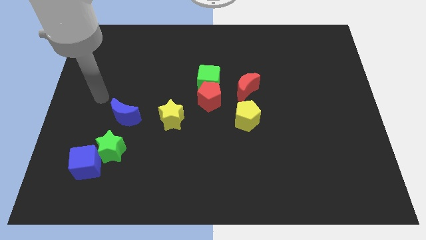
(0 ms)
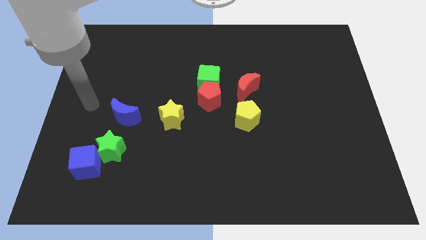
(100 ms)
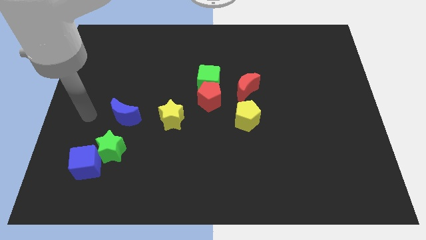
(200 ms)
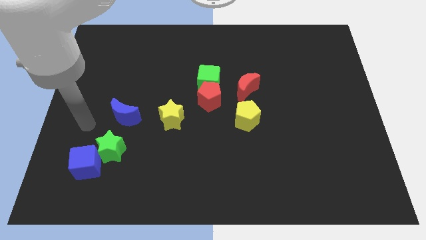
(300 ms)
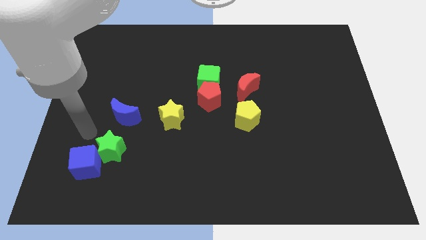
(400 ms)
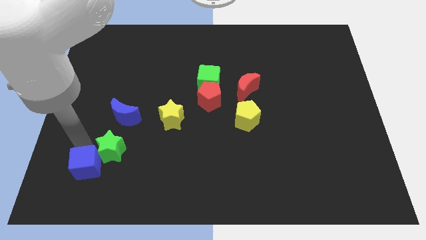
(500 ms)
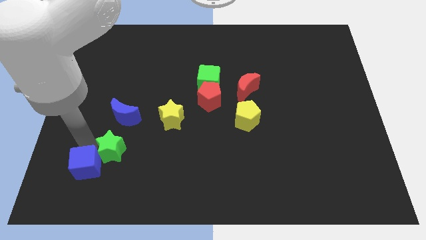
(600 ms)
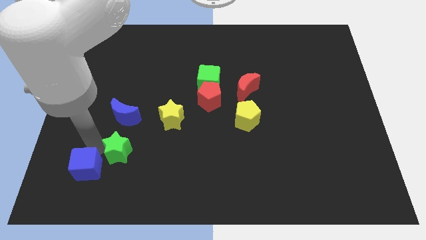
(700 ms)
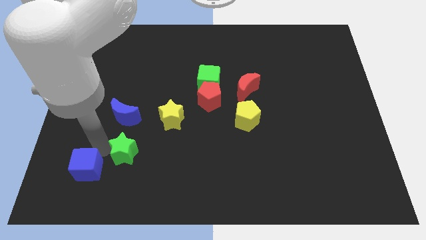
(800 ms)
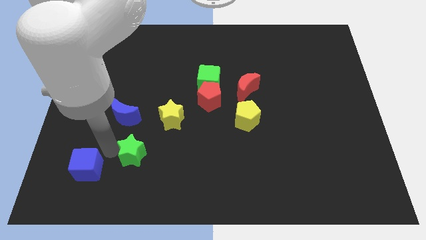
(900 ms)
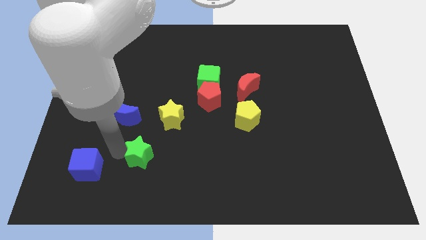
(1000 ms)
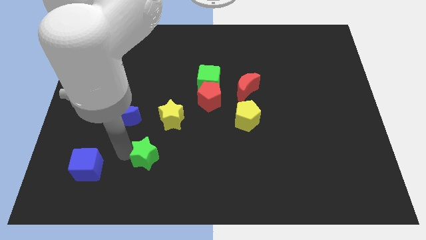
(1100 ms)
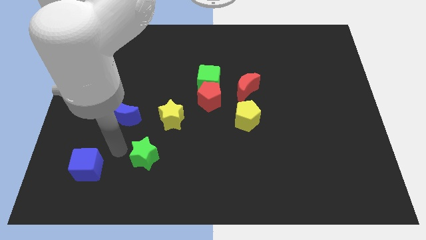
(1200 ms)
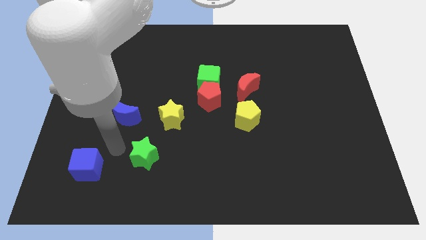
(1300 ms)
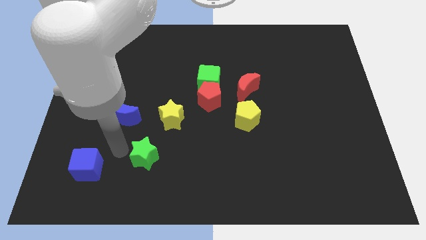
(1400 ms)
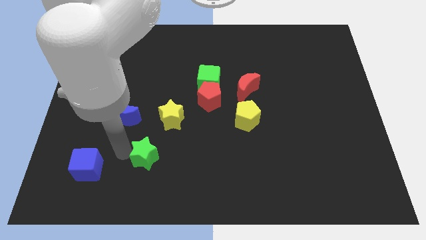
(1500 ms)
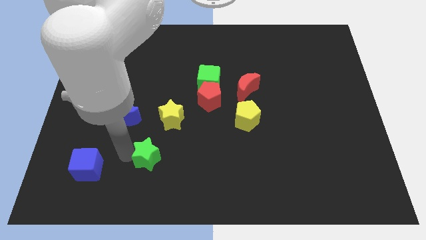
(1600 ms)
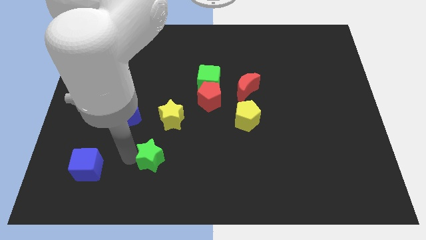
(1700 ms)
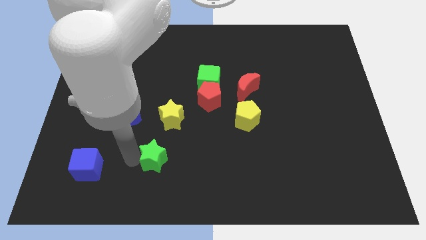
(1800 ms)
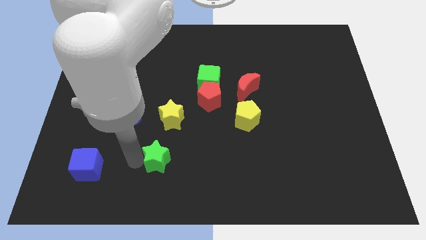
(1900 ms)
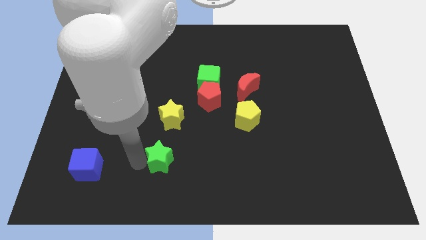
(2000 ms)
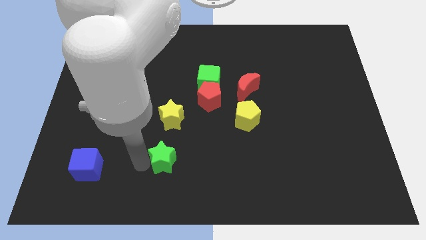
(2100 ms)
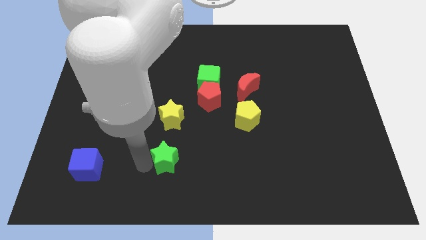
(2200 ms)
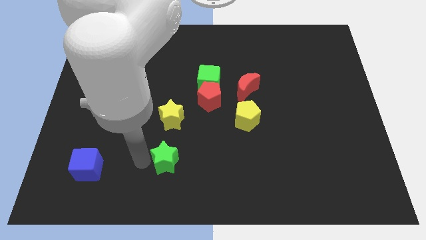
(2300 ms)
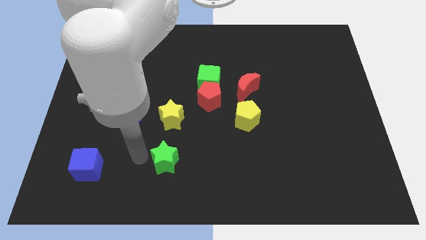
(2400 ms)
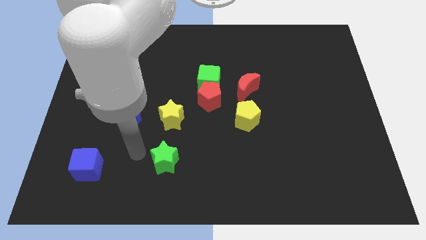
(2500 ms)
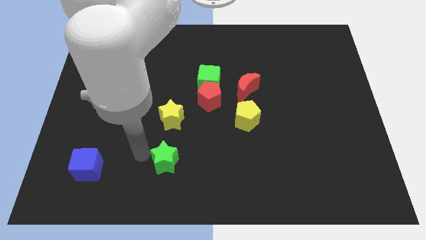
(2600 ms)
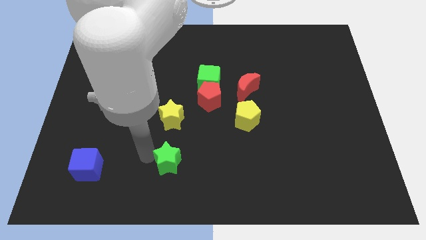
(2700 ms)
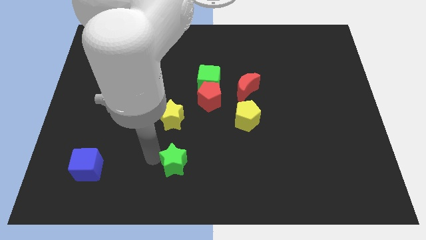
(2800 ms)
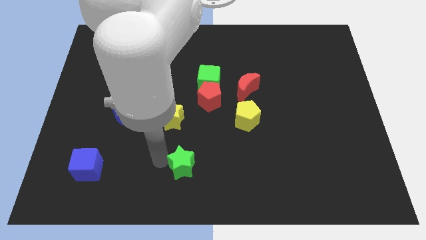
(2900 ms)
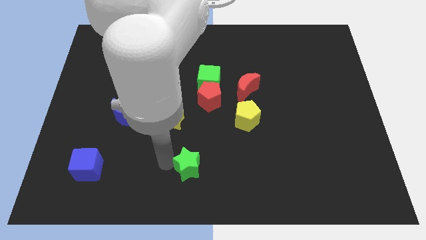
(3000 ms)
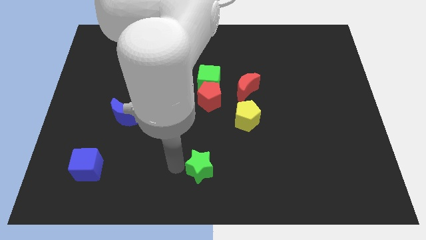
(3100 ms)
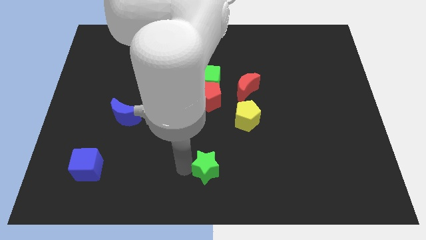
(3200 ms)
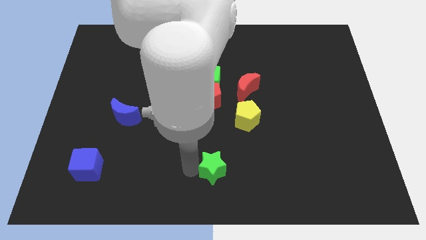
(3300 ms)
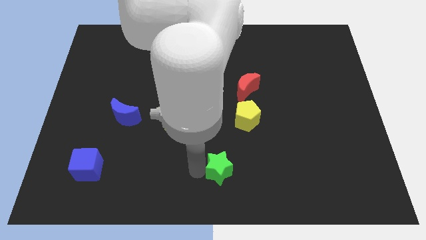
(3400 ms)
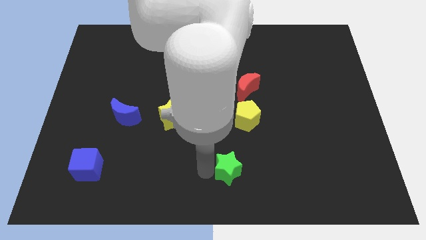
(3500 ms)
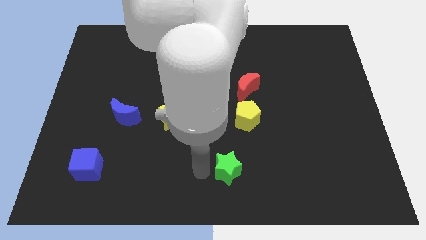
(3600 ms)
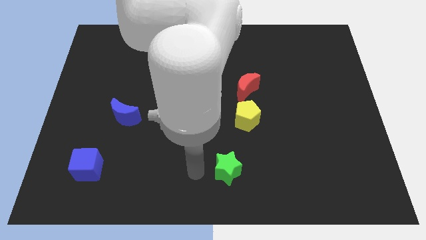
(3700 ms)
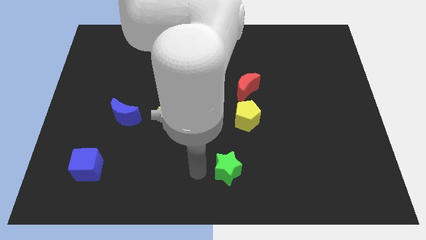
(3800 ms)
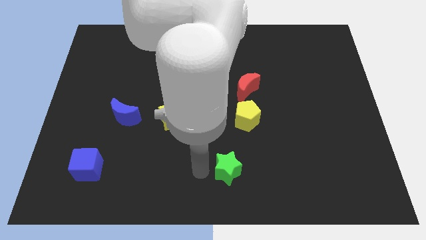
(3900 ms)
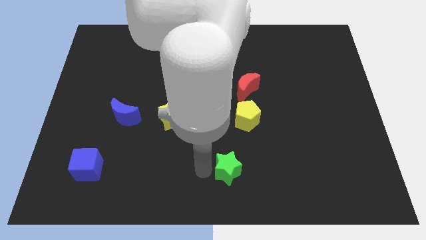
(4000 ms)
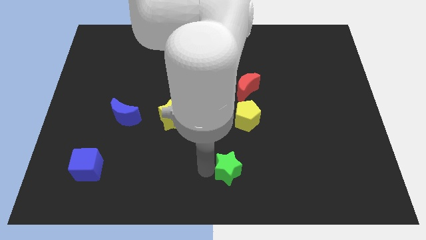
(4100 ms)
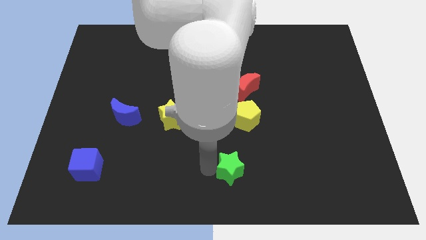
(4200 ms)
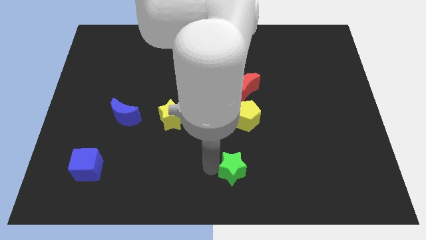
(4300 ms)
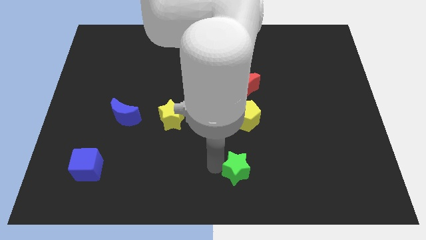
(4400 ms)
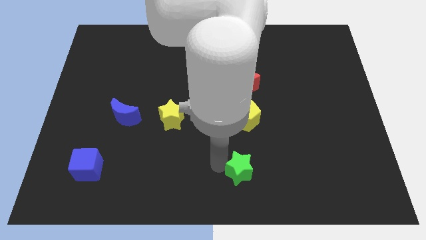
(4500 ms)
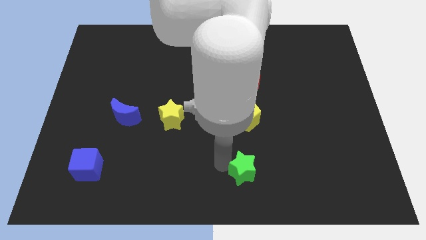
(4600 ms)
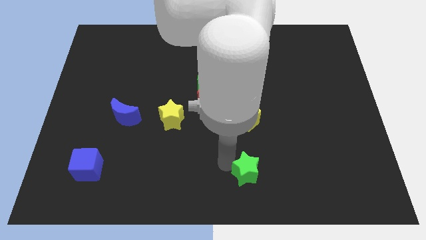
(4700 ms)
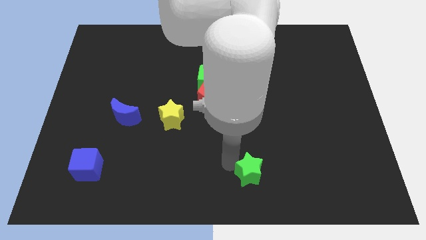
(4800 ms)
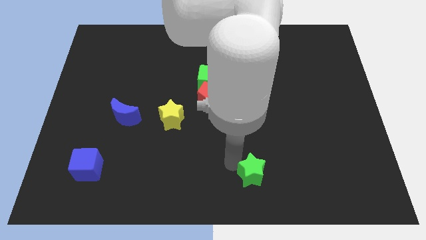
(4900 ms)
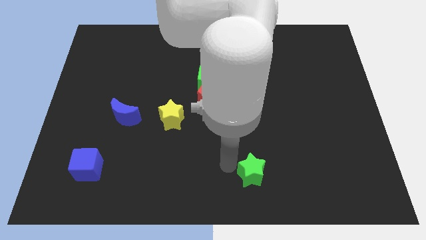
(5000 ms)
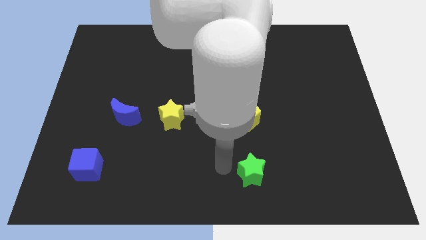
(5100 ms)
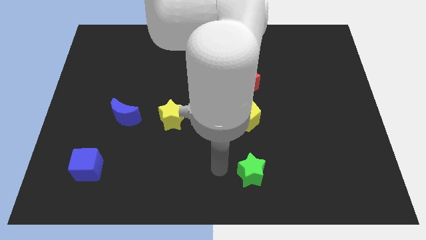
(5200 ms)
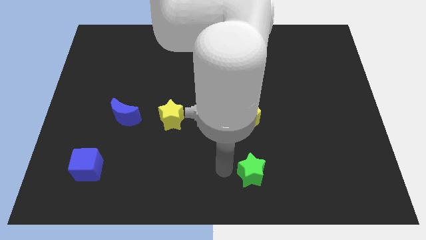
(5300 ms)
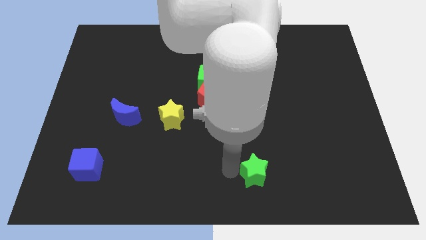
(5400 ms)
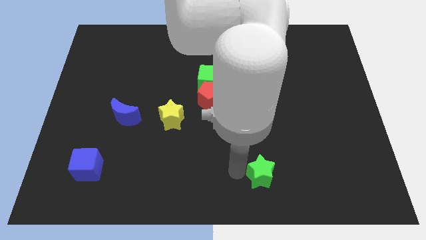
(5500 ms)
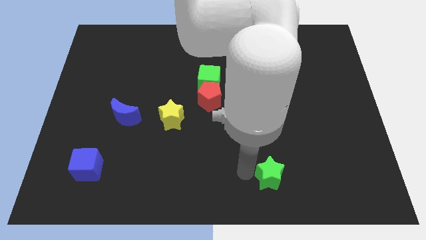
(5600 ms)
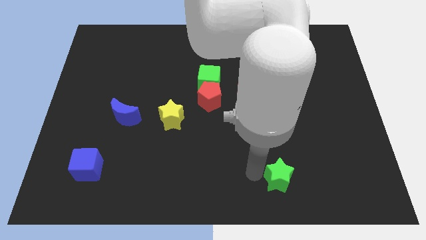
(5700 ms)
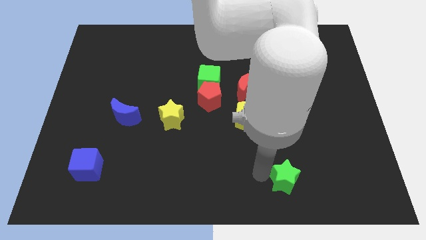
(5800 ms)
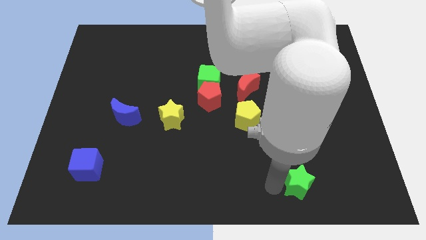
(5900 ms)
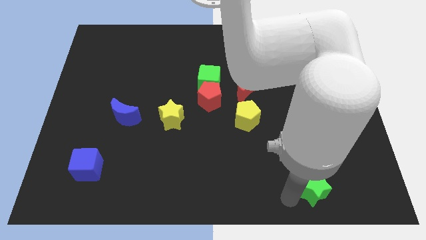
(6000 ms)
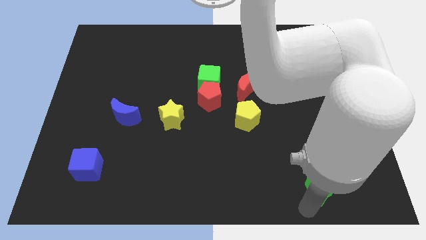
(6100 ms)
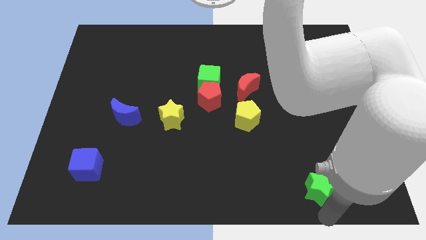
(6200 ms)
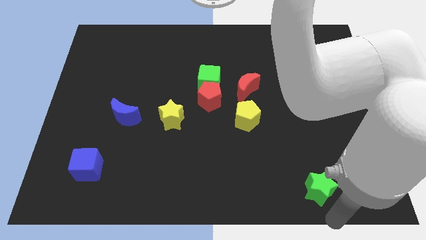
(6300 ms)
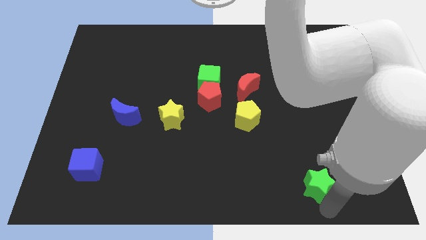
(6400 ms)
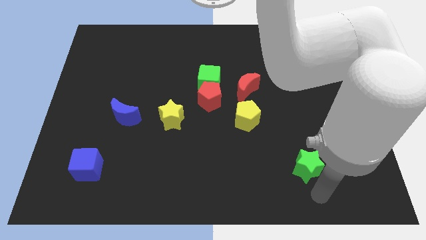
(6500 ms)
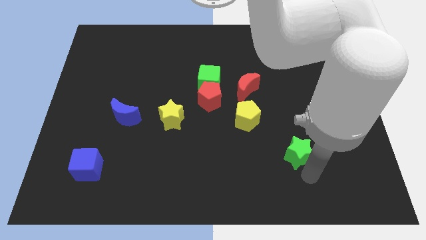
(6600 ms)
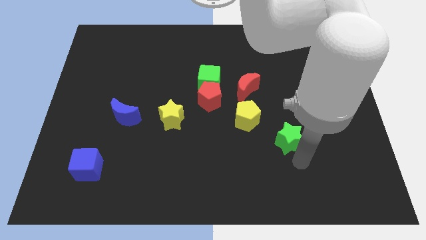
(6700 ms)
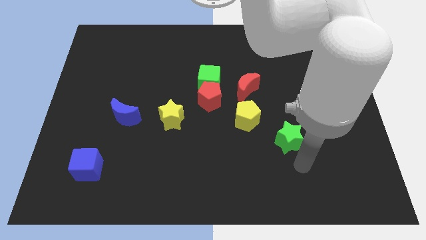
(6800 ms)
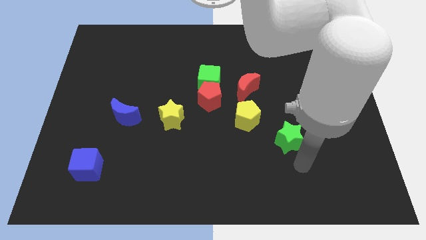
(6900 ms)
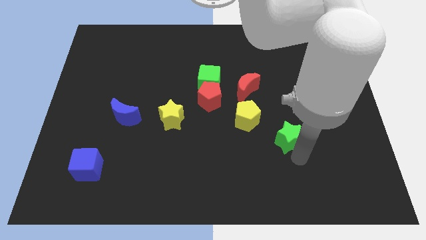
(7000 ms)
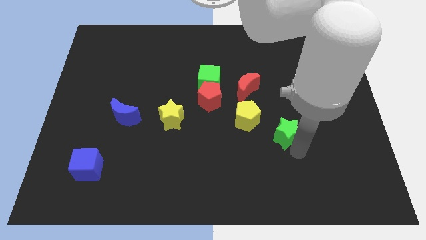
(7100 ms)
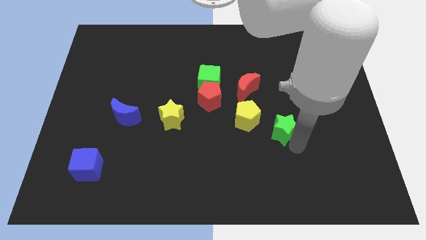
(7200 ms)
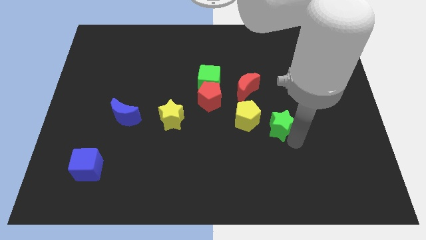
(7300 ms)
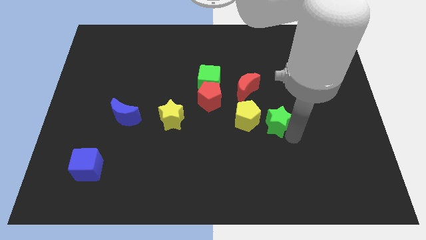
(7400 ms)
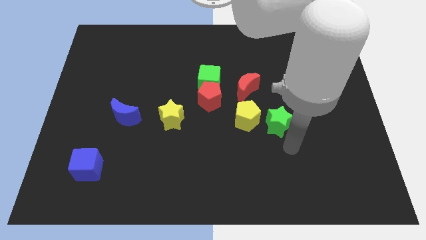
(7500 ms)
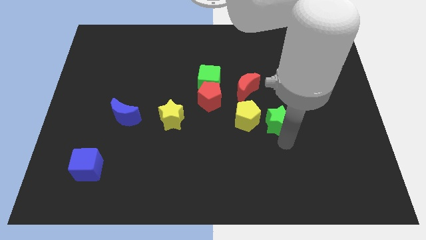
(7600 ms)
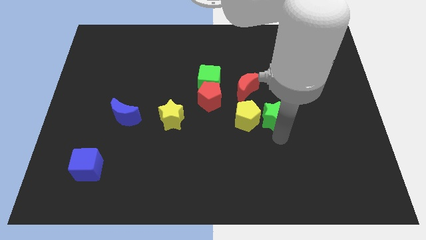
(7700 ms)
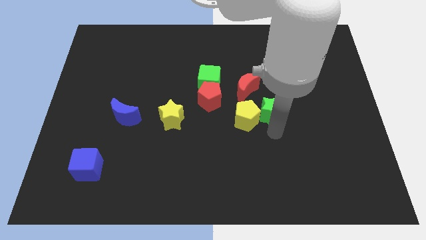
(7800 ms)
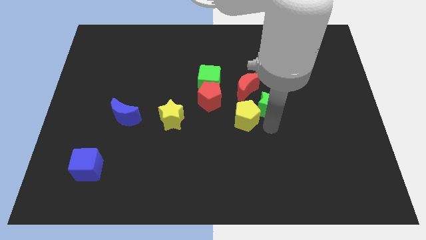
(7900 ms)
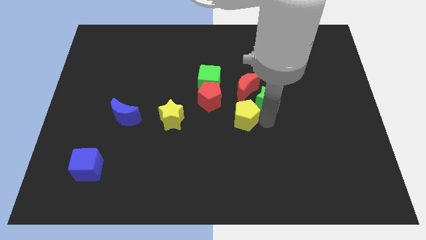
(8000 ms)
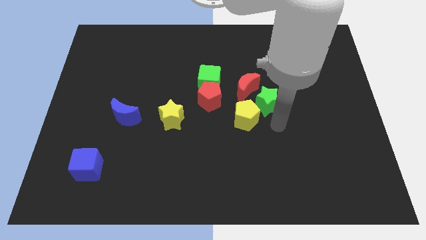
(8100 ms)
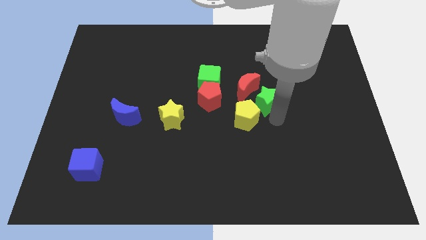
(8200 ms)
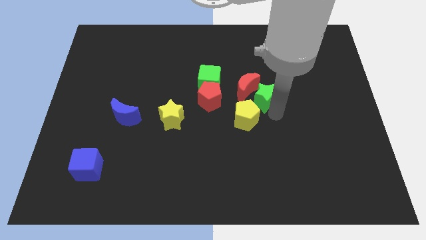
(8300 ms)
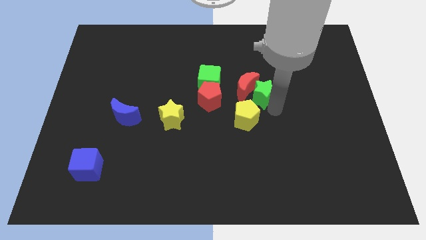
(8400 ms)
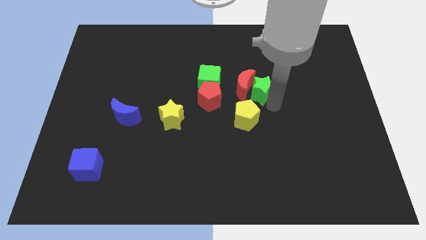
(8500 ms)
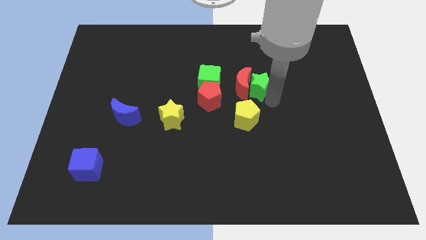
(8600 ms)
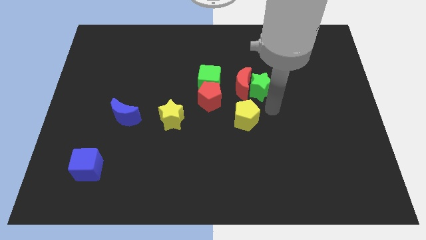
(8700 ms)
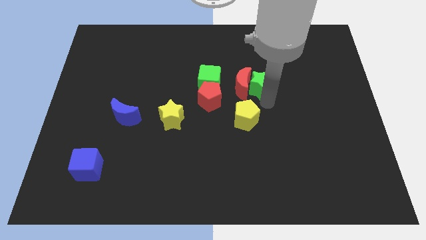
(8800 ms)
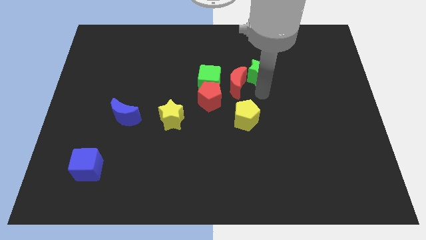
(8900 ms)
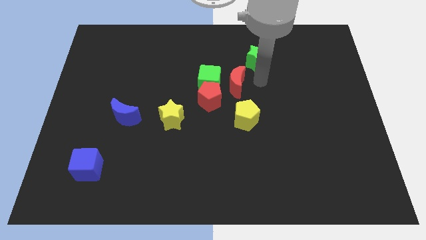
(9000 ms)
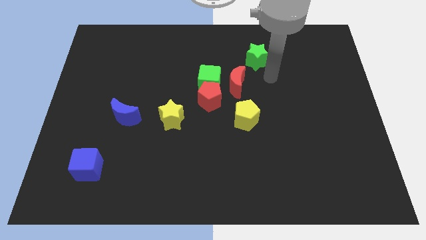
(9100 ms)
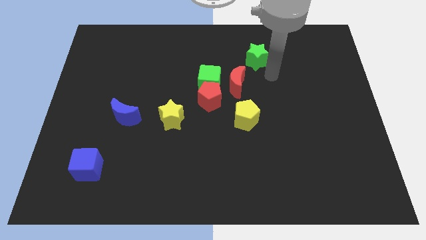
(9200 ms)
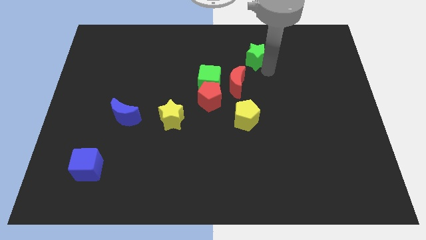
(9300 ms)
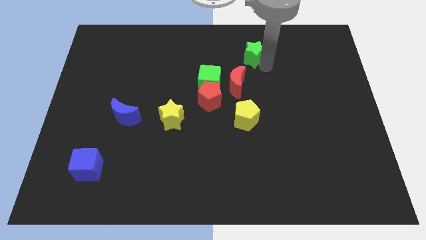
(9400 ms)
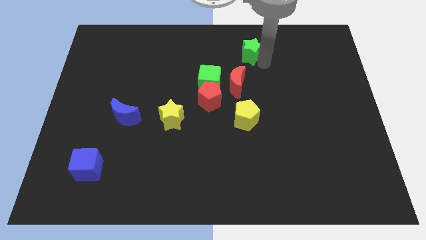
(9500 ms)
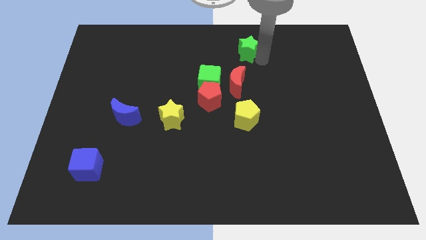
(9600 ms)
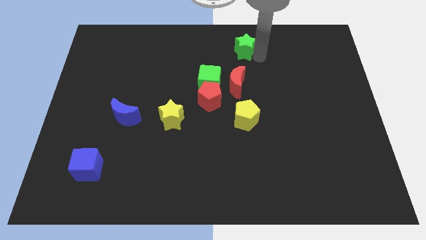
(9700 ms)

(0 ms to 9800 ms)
move the green star to the towards your base
